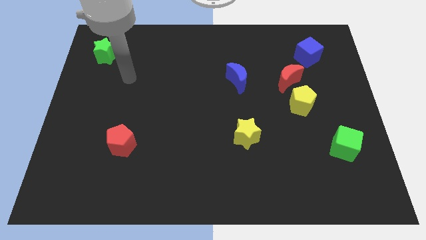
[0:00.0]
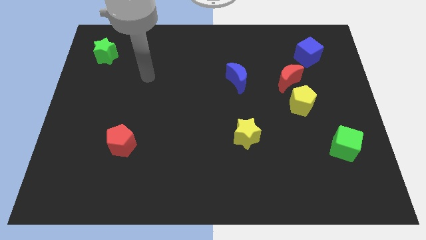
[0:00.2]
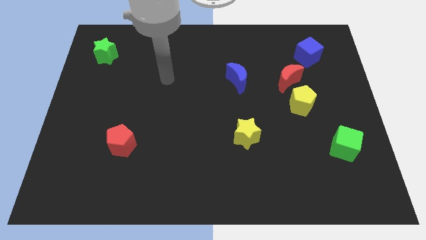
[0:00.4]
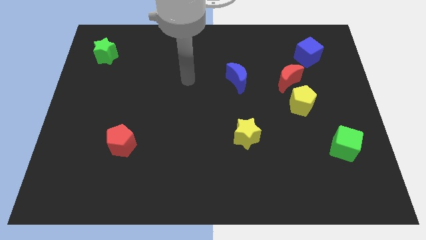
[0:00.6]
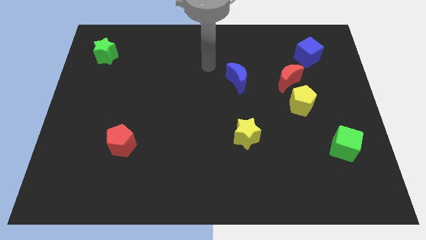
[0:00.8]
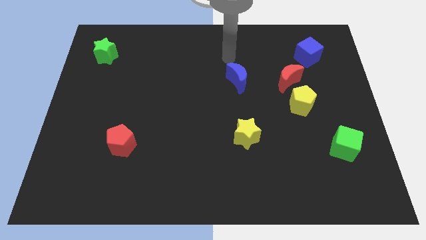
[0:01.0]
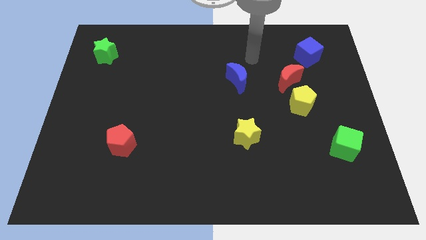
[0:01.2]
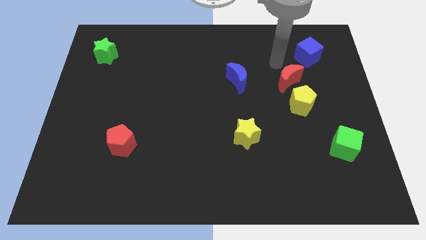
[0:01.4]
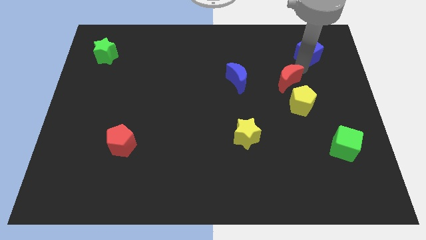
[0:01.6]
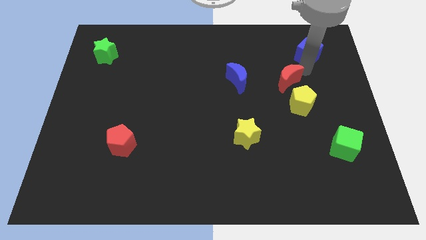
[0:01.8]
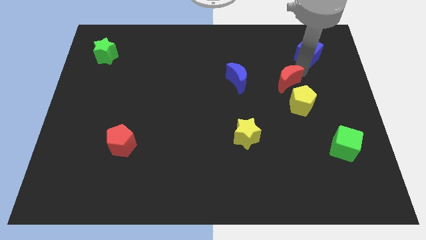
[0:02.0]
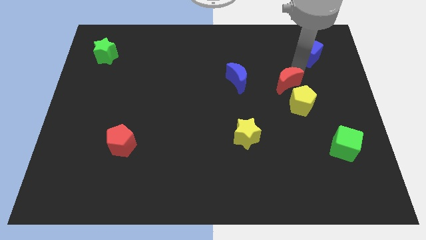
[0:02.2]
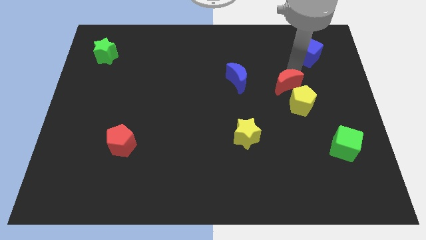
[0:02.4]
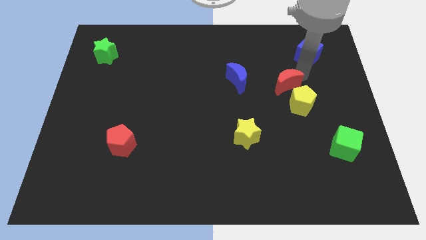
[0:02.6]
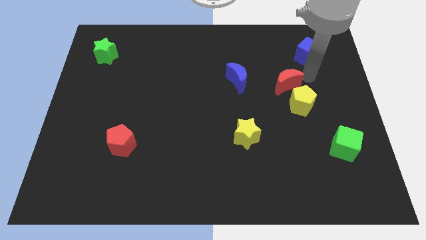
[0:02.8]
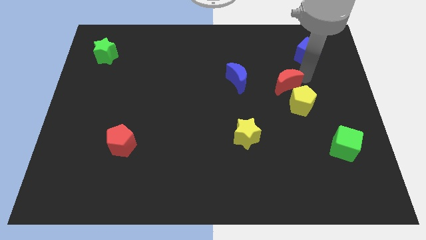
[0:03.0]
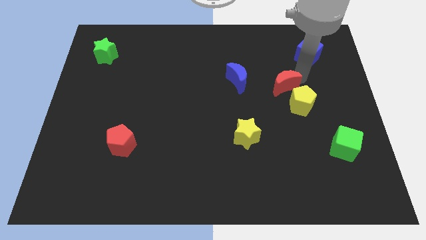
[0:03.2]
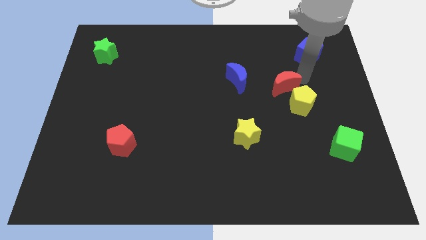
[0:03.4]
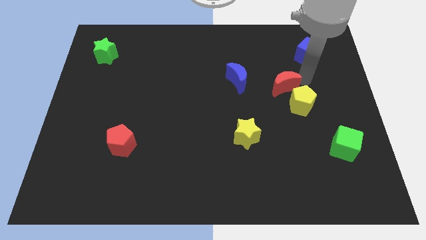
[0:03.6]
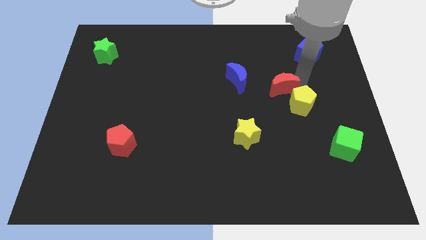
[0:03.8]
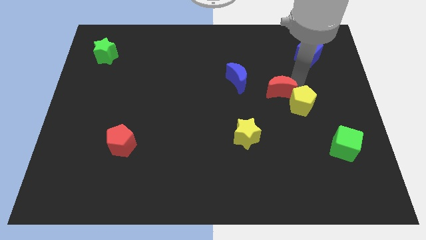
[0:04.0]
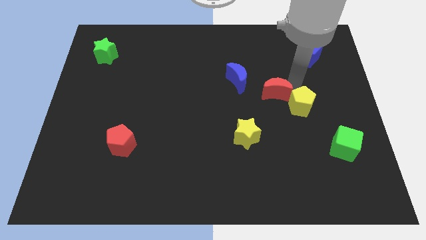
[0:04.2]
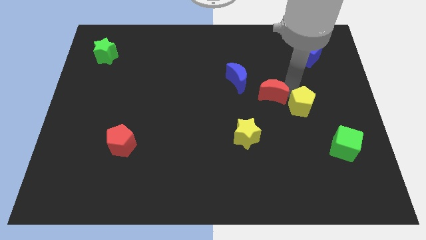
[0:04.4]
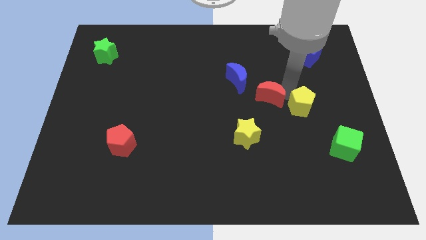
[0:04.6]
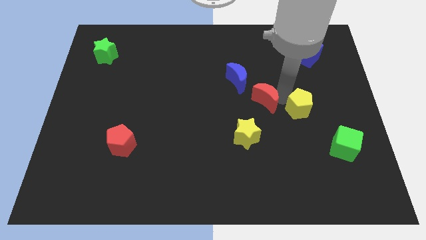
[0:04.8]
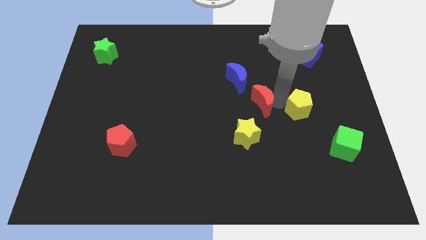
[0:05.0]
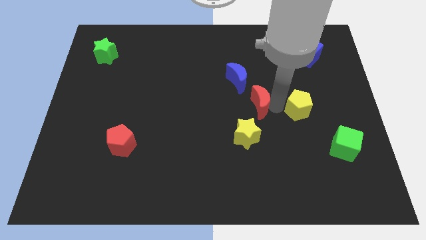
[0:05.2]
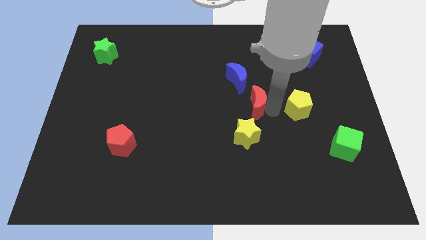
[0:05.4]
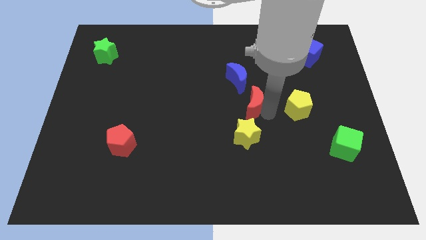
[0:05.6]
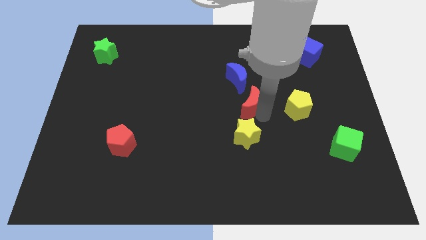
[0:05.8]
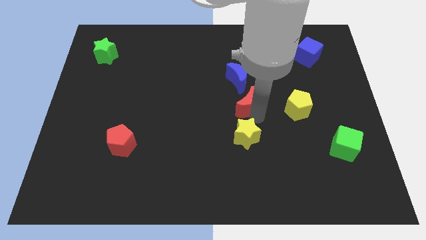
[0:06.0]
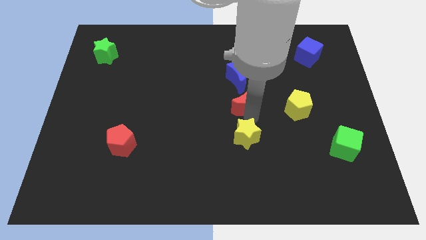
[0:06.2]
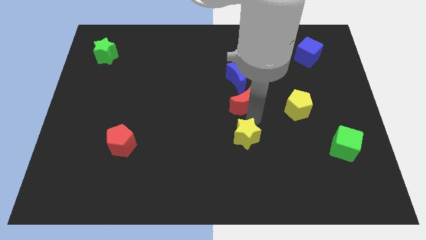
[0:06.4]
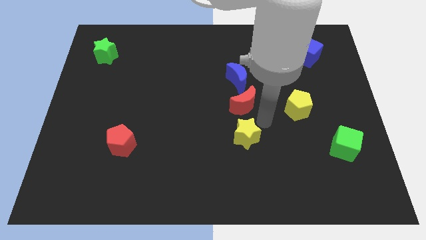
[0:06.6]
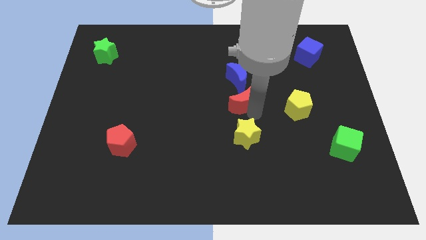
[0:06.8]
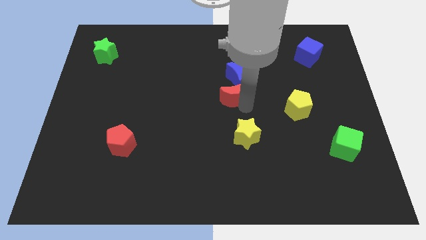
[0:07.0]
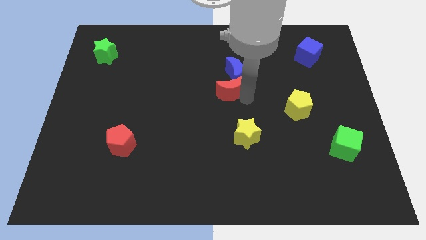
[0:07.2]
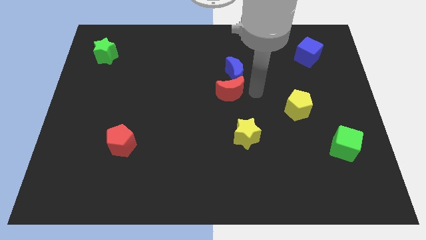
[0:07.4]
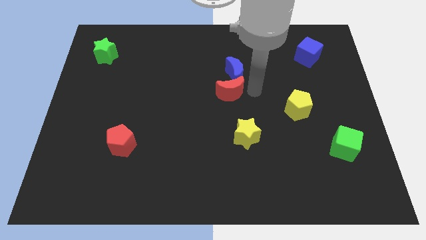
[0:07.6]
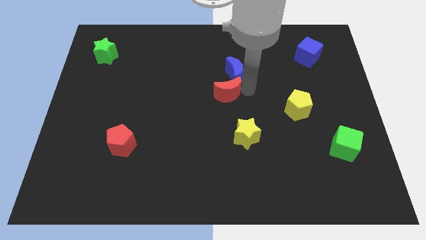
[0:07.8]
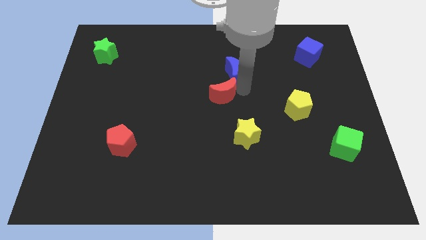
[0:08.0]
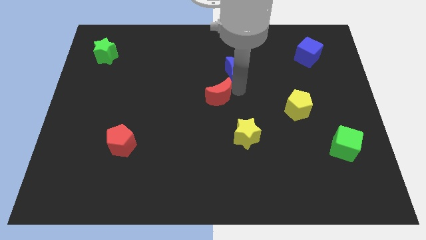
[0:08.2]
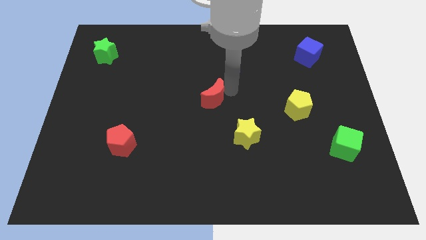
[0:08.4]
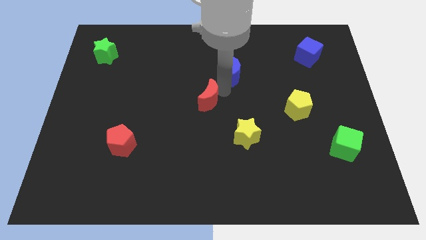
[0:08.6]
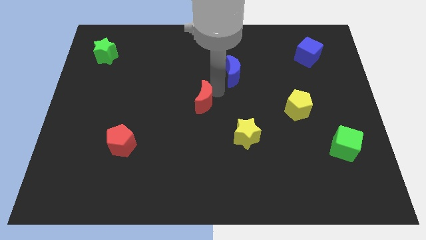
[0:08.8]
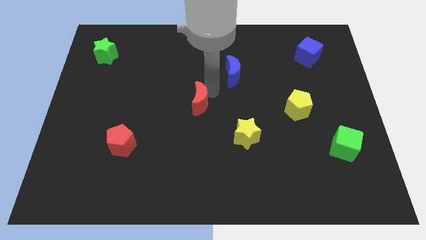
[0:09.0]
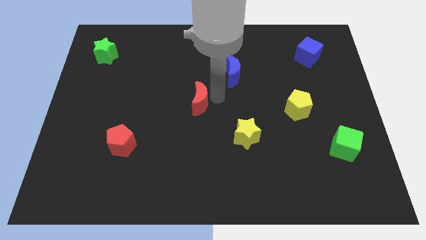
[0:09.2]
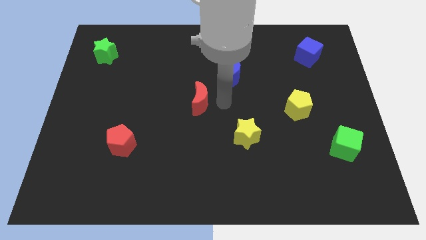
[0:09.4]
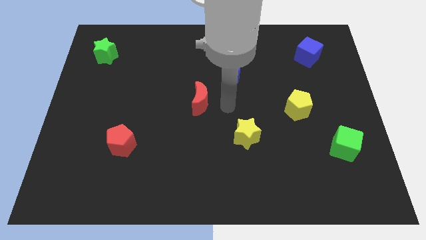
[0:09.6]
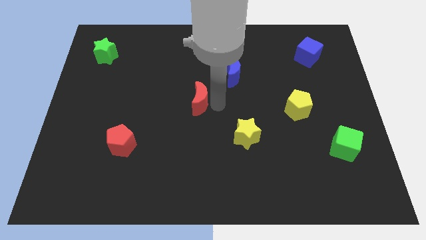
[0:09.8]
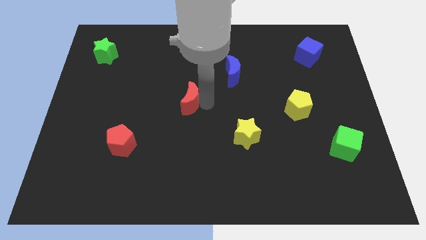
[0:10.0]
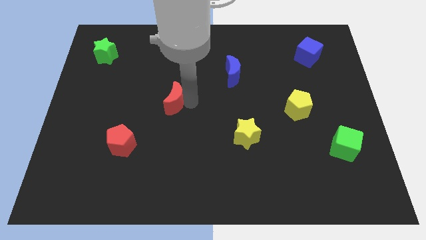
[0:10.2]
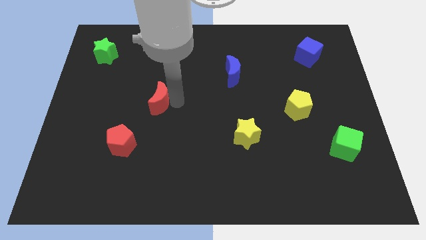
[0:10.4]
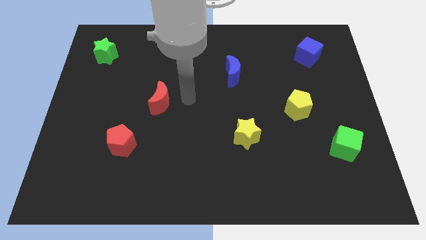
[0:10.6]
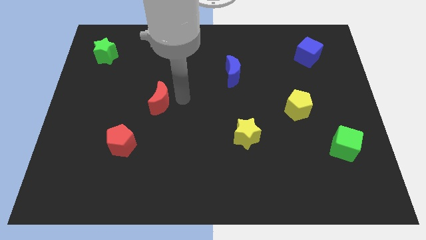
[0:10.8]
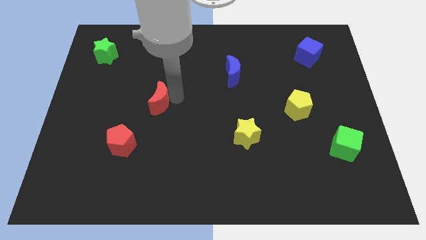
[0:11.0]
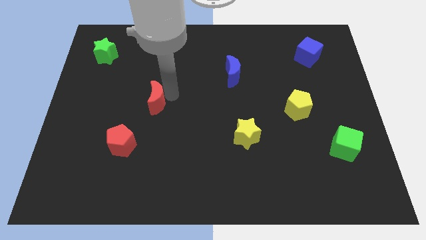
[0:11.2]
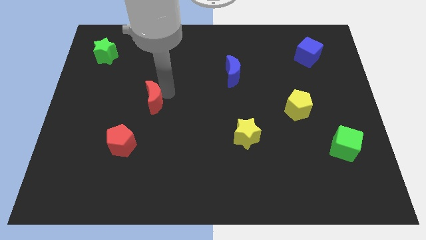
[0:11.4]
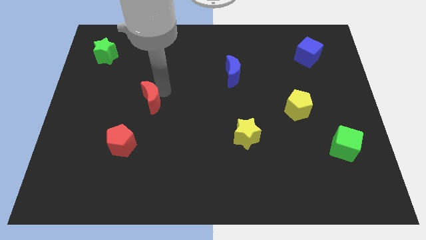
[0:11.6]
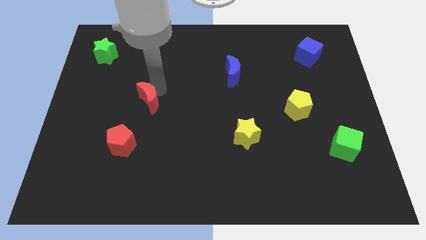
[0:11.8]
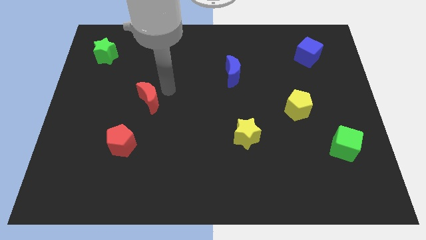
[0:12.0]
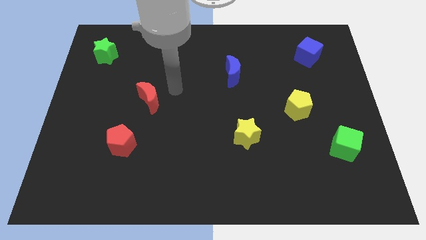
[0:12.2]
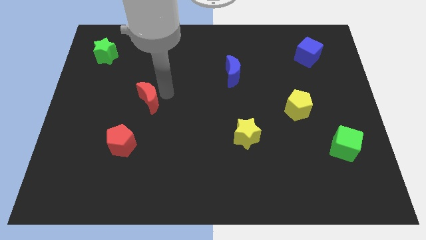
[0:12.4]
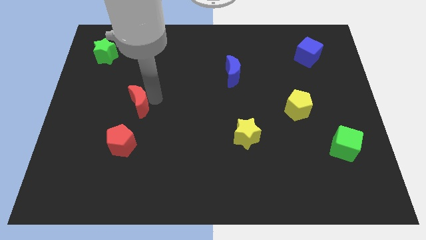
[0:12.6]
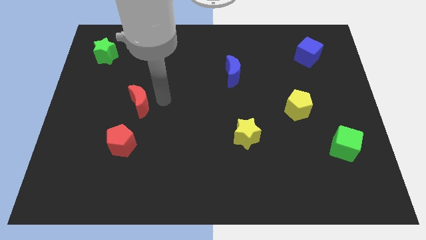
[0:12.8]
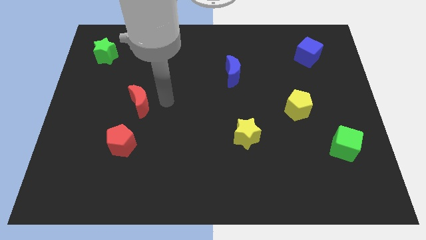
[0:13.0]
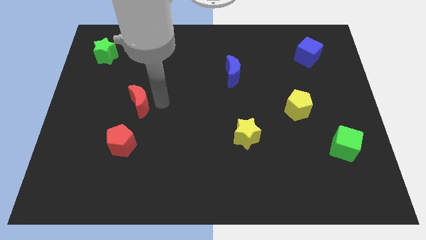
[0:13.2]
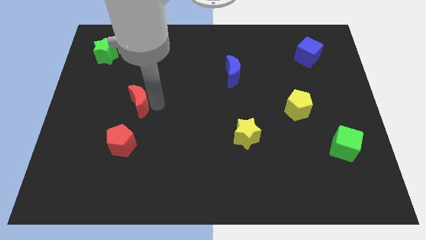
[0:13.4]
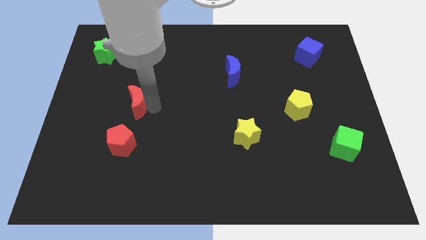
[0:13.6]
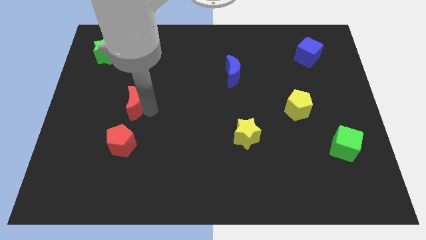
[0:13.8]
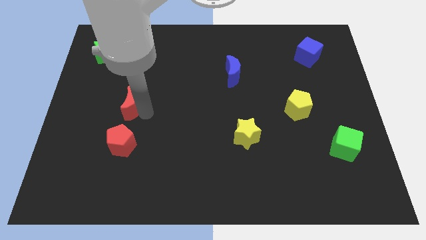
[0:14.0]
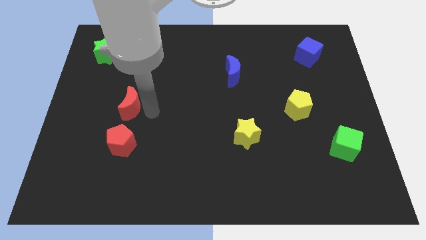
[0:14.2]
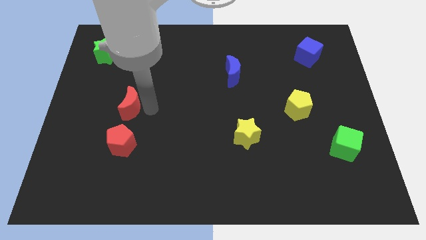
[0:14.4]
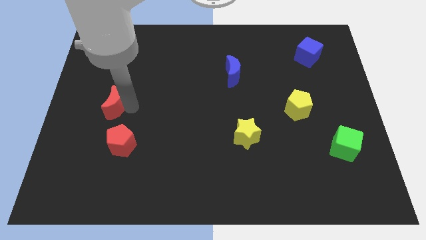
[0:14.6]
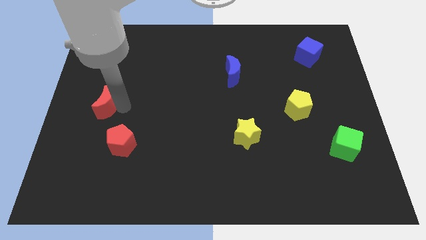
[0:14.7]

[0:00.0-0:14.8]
put the red moon to the left side
